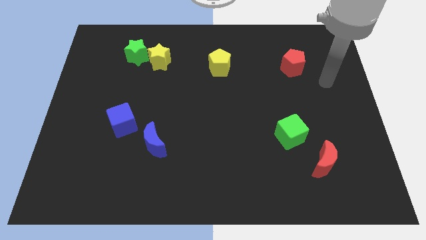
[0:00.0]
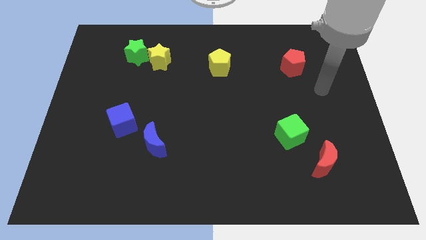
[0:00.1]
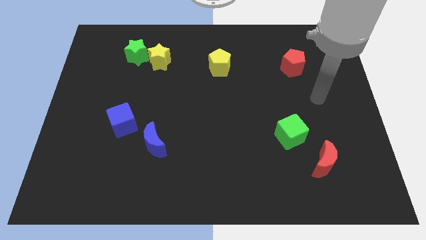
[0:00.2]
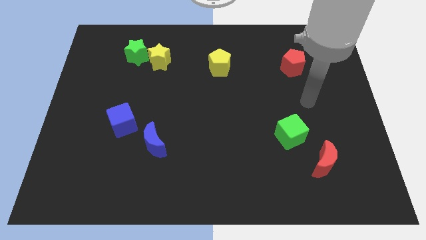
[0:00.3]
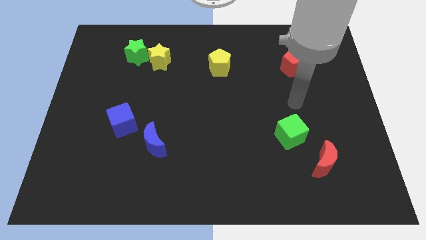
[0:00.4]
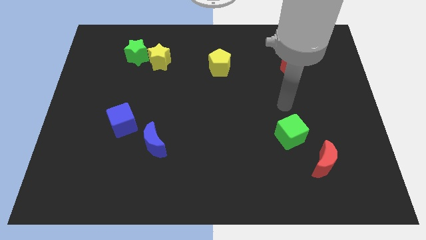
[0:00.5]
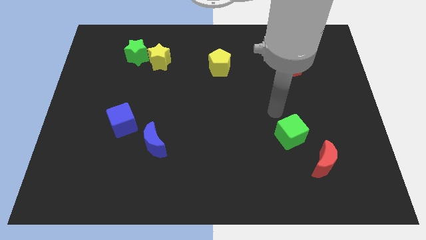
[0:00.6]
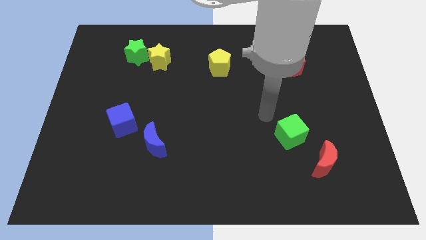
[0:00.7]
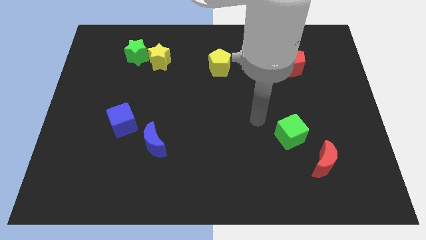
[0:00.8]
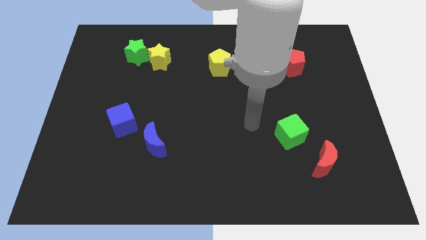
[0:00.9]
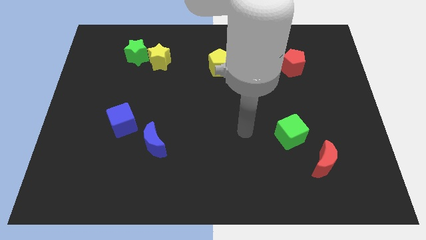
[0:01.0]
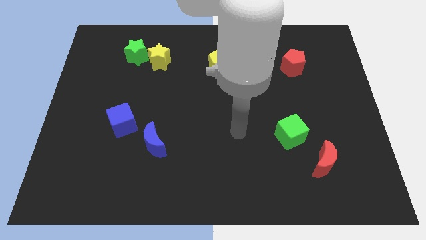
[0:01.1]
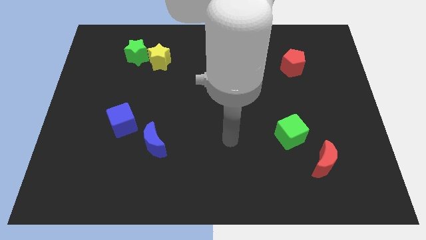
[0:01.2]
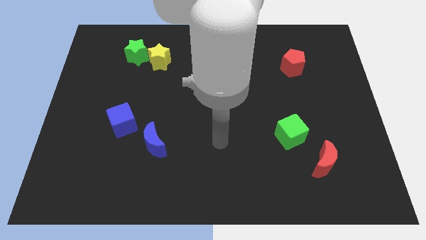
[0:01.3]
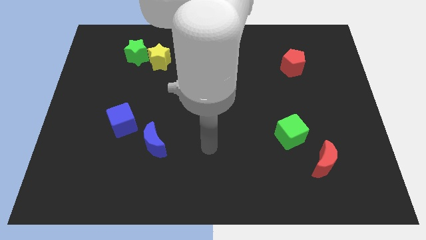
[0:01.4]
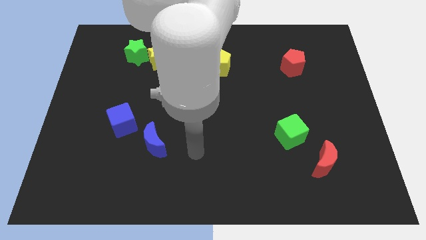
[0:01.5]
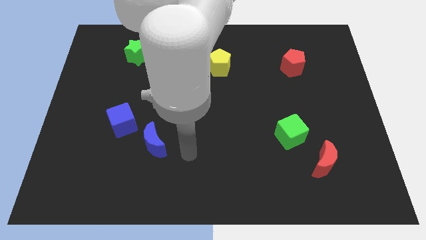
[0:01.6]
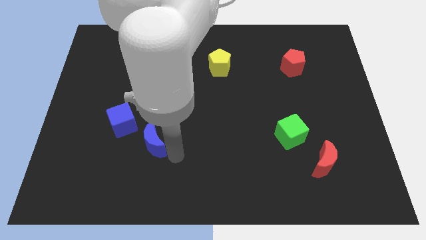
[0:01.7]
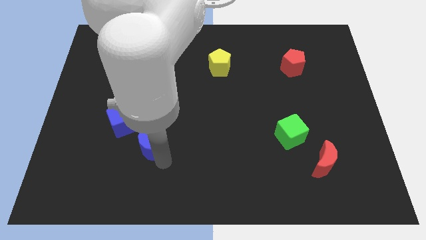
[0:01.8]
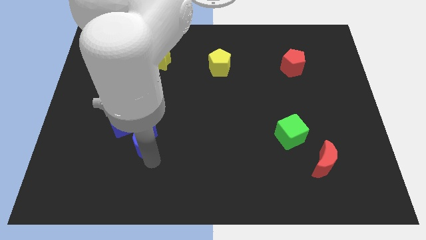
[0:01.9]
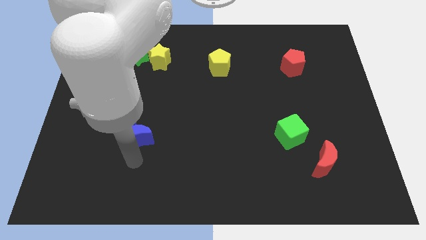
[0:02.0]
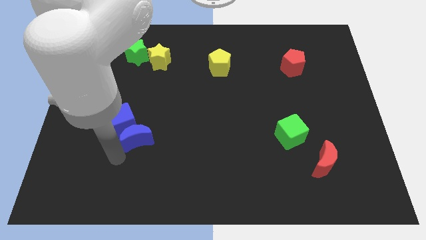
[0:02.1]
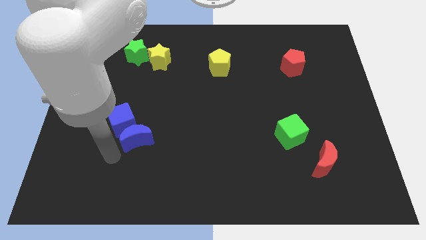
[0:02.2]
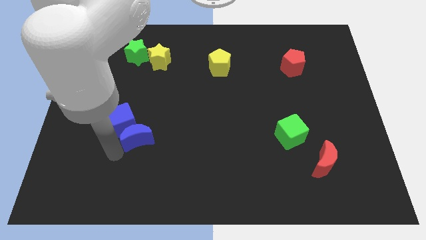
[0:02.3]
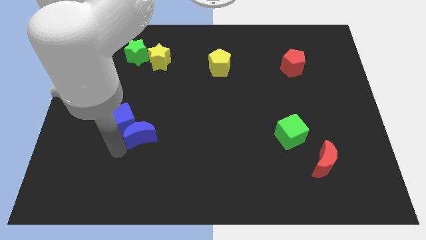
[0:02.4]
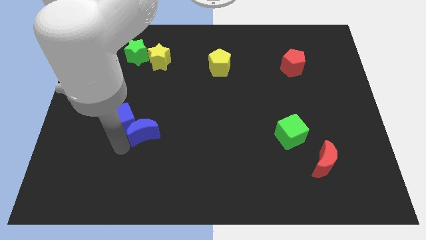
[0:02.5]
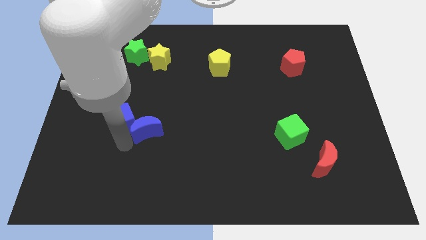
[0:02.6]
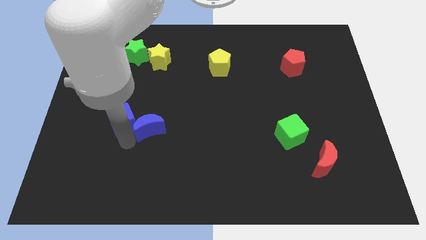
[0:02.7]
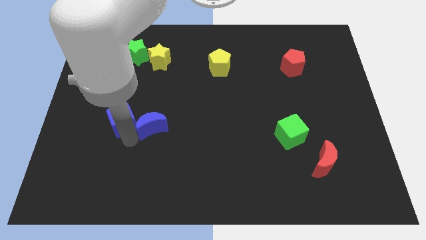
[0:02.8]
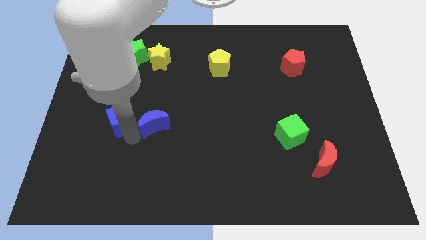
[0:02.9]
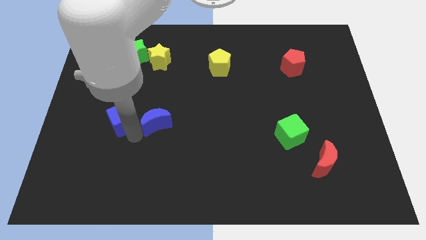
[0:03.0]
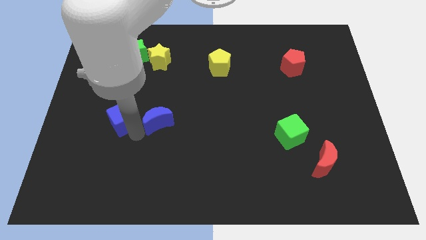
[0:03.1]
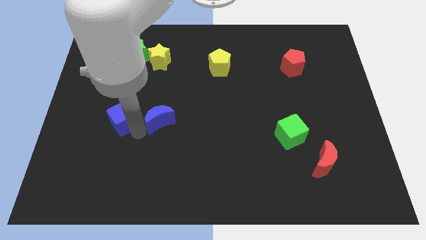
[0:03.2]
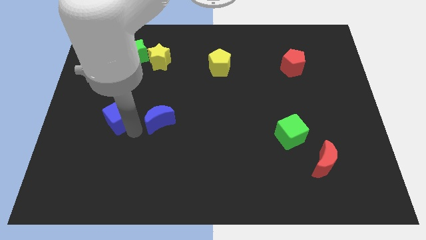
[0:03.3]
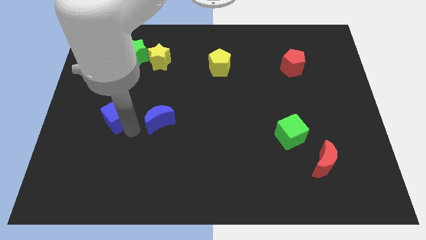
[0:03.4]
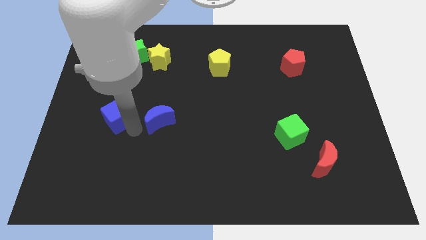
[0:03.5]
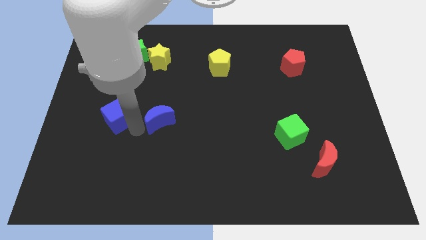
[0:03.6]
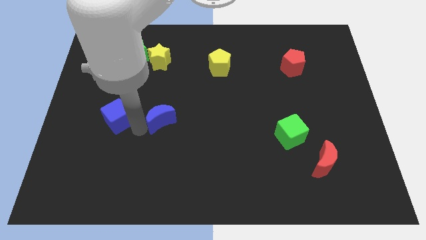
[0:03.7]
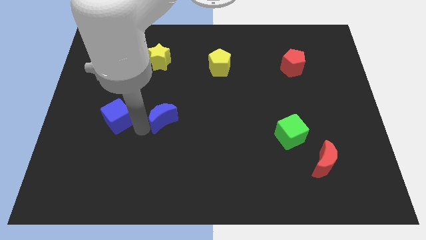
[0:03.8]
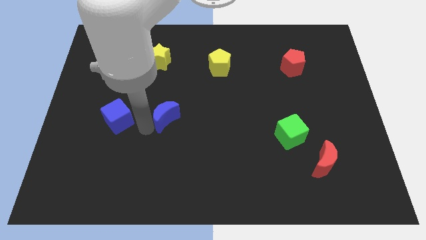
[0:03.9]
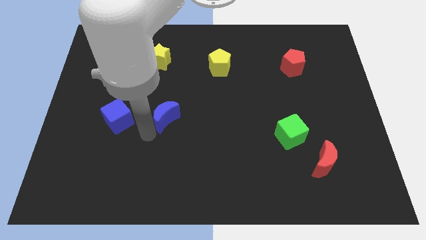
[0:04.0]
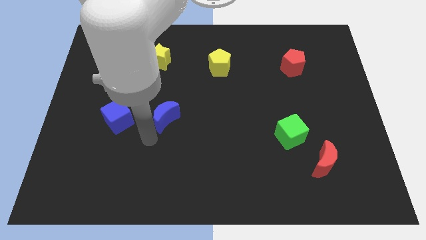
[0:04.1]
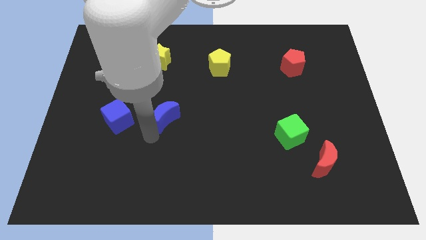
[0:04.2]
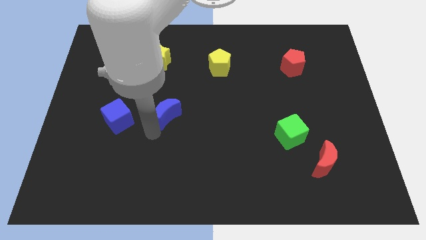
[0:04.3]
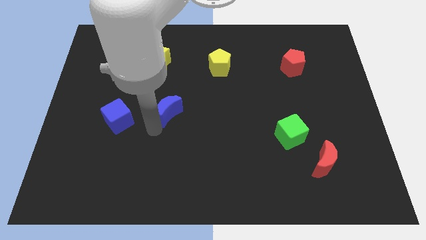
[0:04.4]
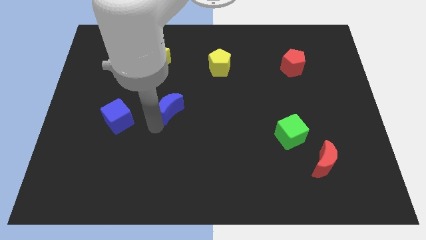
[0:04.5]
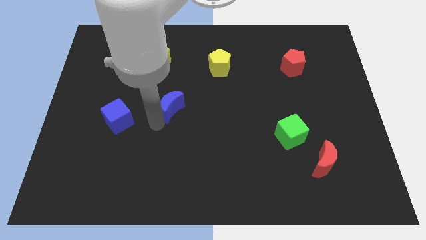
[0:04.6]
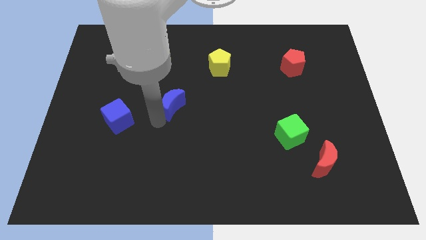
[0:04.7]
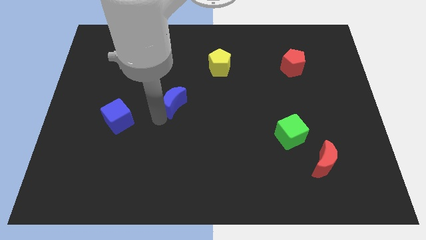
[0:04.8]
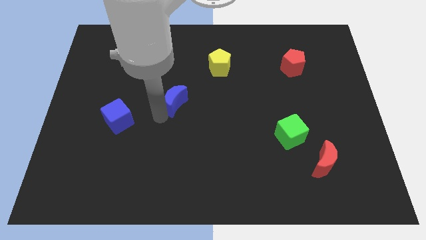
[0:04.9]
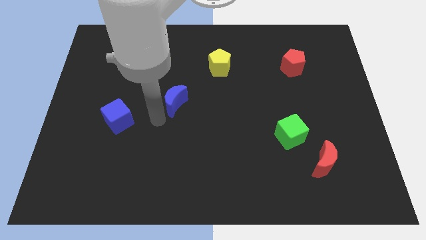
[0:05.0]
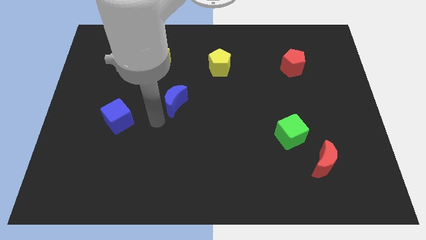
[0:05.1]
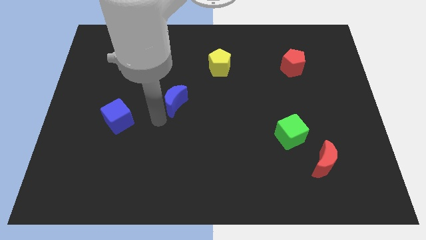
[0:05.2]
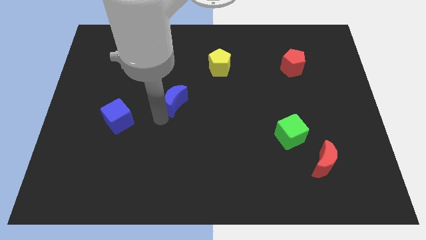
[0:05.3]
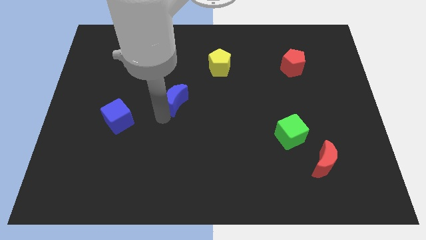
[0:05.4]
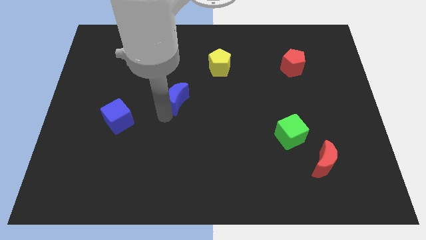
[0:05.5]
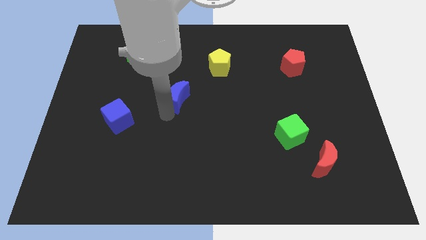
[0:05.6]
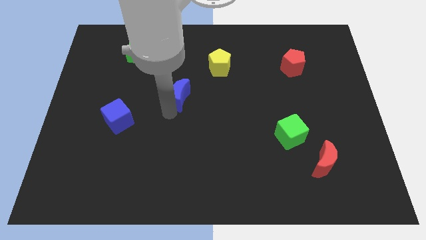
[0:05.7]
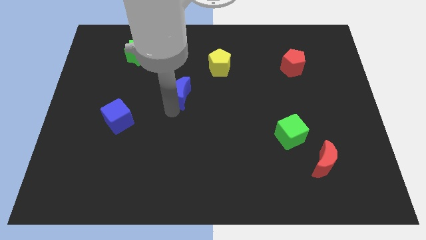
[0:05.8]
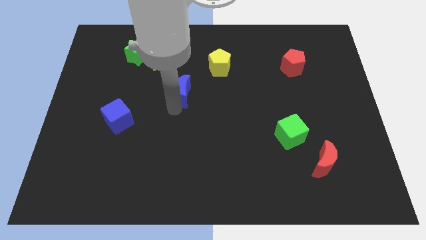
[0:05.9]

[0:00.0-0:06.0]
move the blue moon to the bottom left of the yellow pentagon

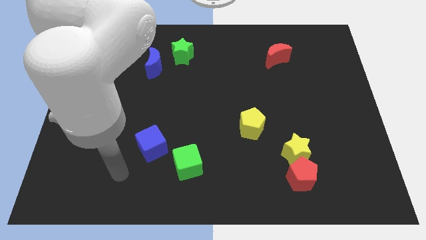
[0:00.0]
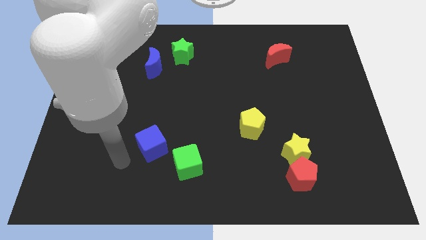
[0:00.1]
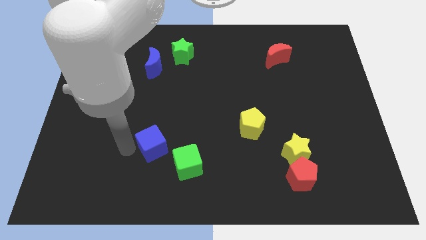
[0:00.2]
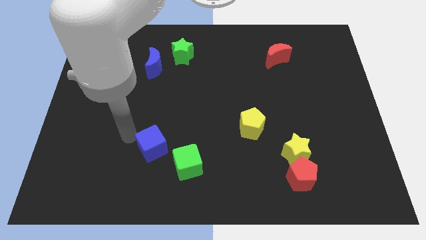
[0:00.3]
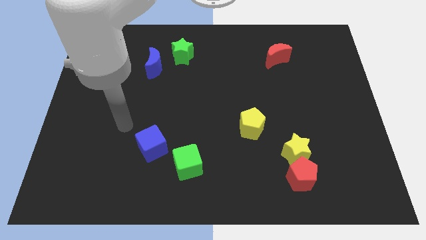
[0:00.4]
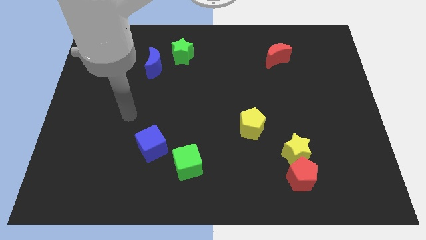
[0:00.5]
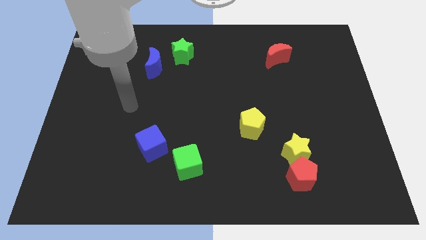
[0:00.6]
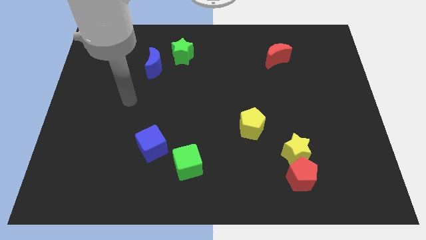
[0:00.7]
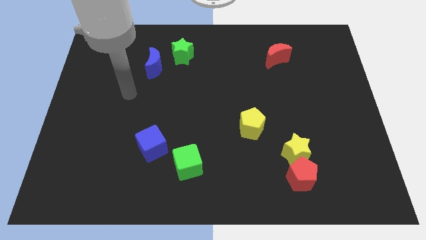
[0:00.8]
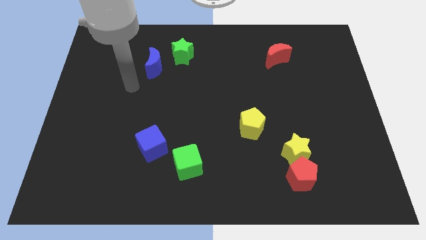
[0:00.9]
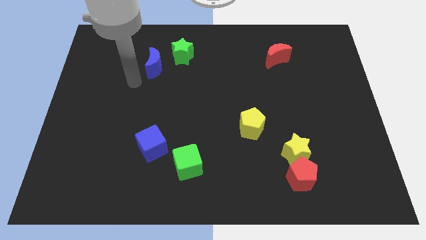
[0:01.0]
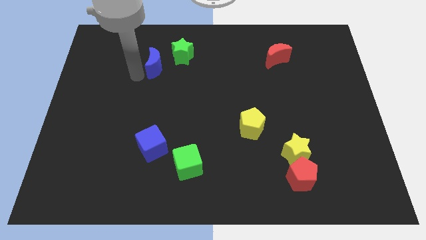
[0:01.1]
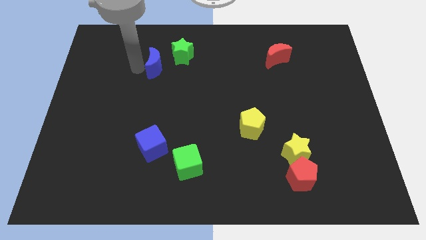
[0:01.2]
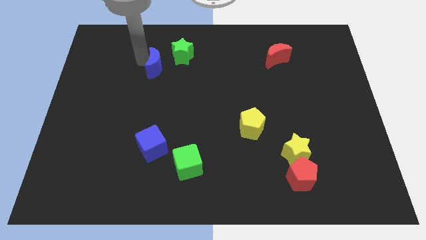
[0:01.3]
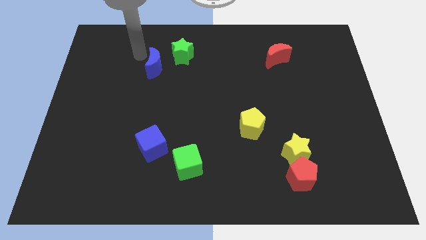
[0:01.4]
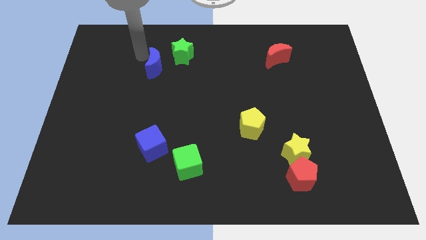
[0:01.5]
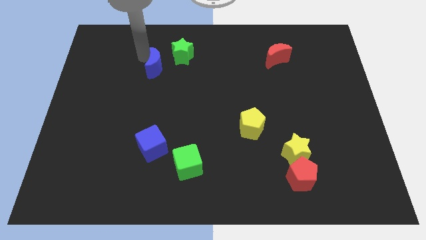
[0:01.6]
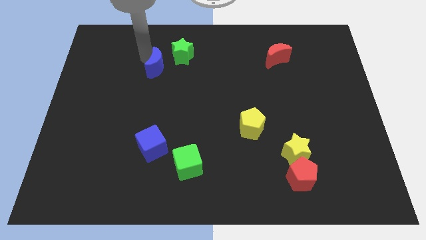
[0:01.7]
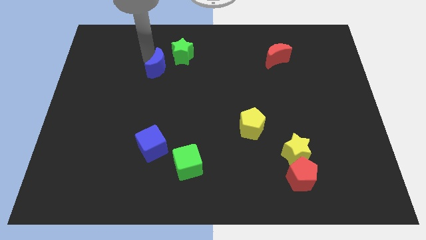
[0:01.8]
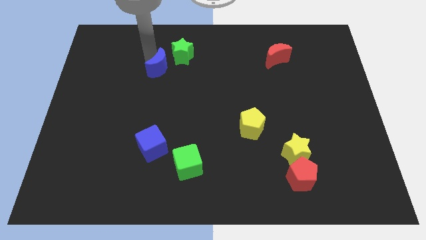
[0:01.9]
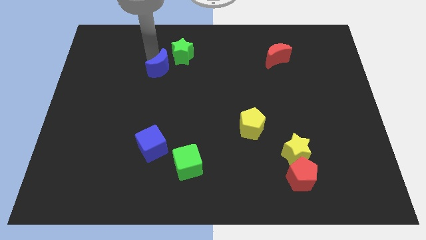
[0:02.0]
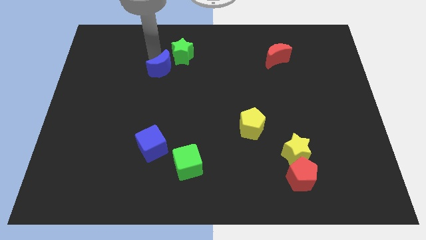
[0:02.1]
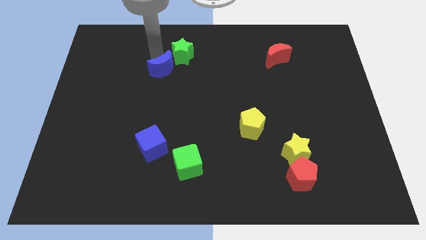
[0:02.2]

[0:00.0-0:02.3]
slide the blue moon to the bottom of the green star
